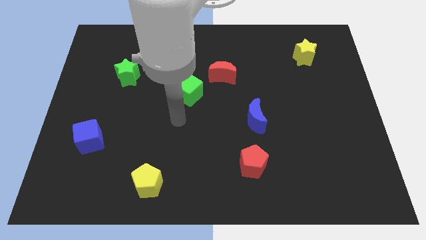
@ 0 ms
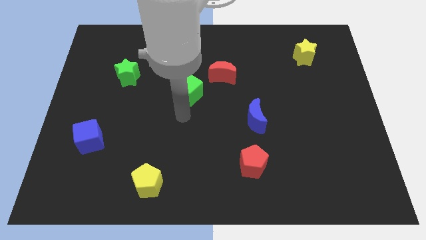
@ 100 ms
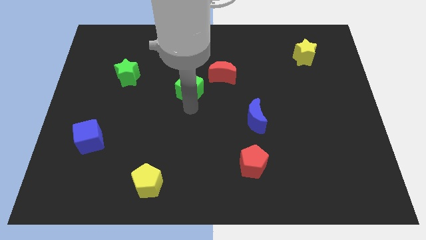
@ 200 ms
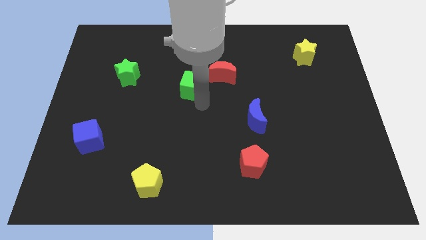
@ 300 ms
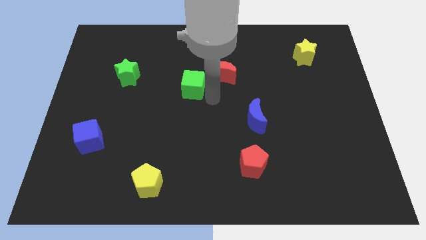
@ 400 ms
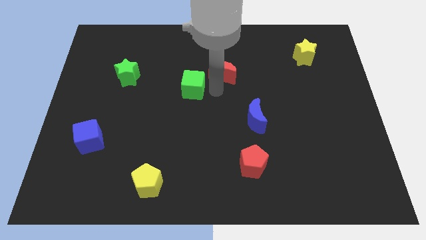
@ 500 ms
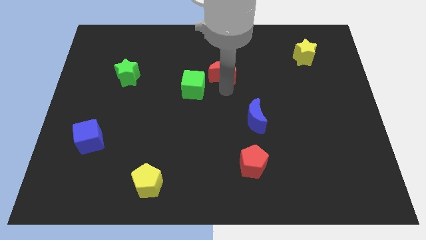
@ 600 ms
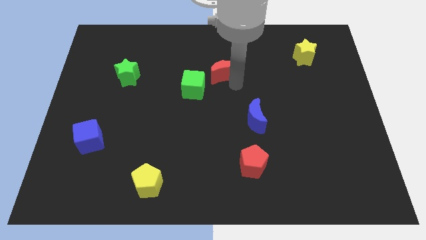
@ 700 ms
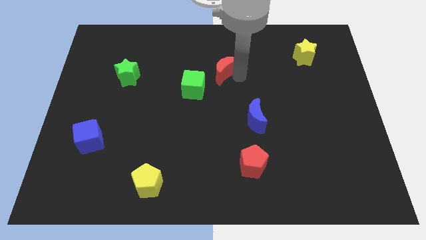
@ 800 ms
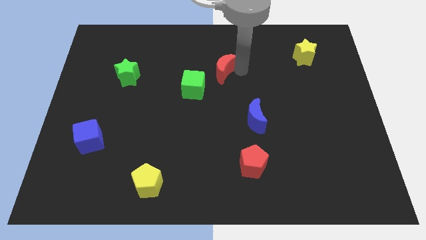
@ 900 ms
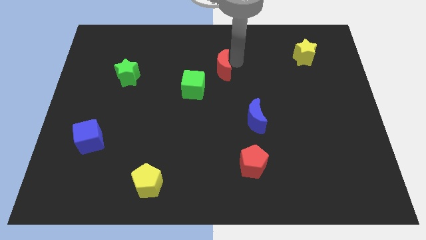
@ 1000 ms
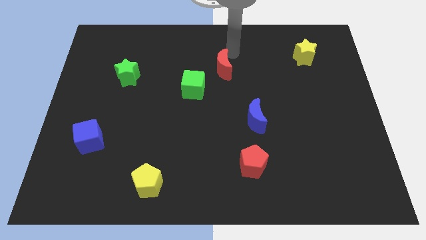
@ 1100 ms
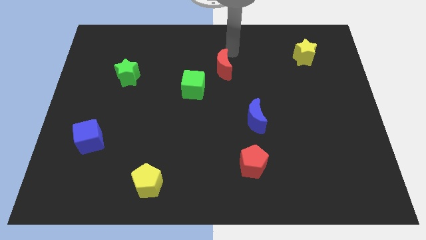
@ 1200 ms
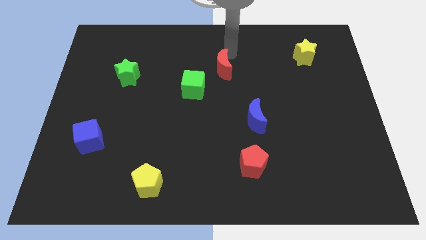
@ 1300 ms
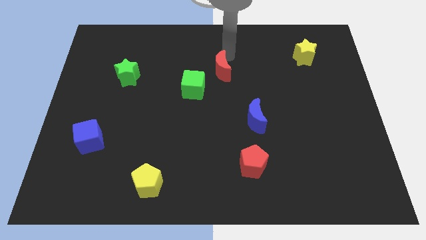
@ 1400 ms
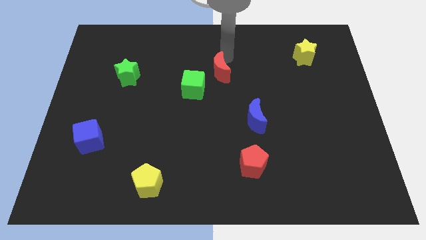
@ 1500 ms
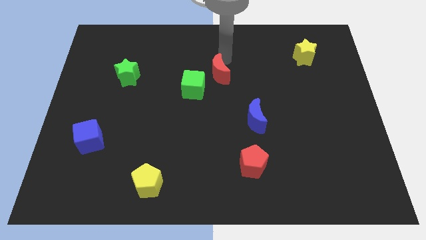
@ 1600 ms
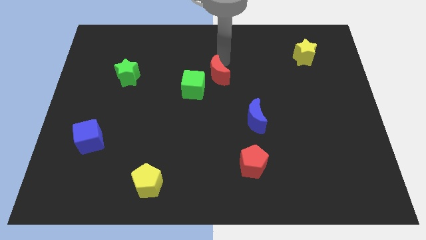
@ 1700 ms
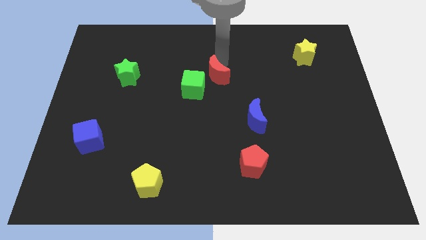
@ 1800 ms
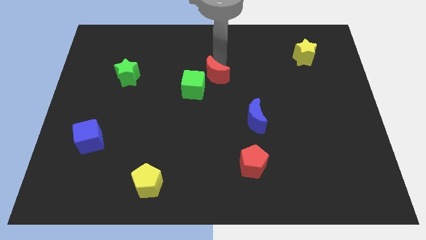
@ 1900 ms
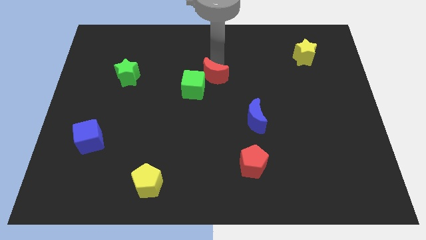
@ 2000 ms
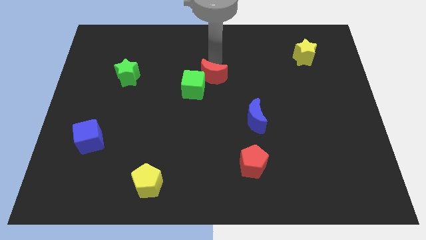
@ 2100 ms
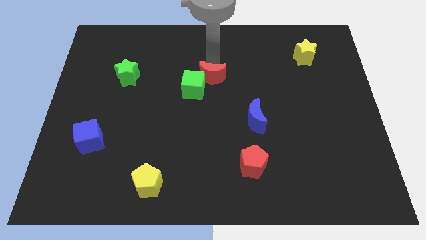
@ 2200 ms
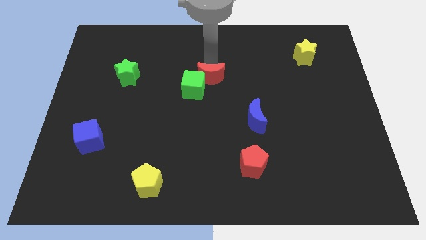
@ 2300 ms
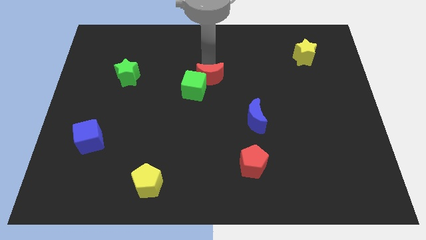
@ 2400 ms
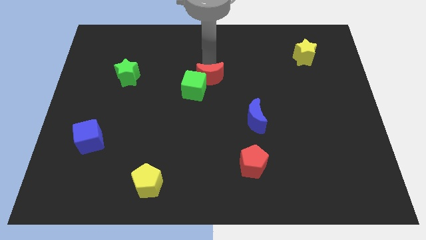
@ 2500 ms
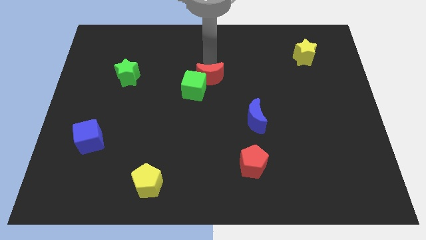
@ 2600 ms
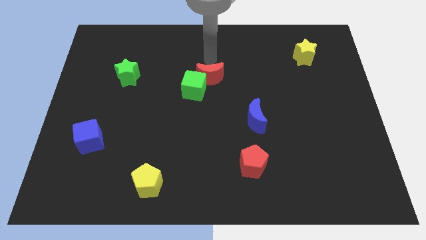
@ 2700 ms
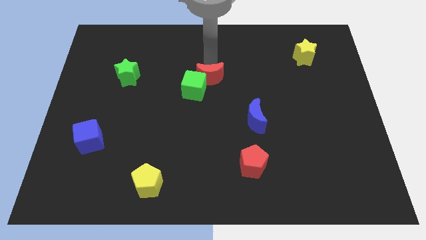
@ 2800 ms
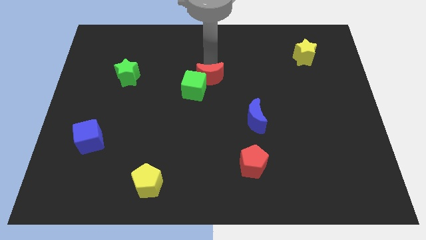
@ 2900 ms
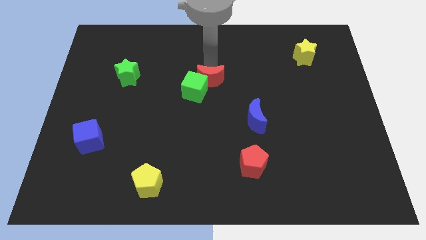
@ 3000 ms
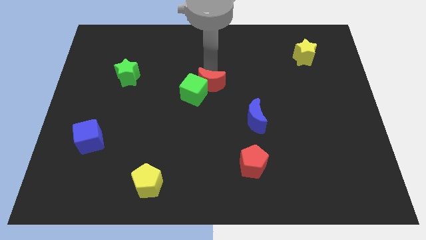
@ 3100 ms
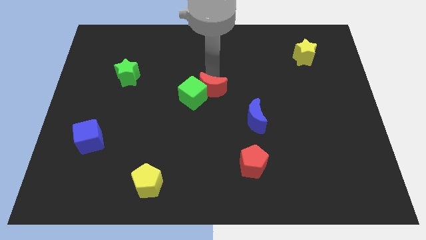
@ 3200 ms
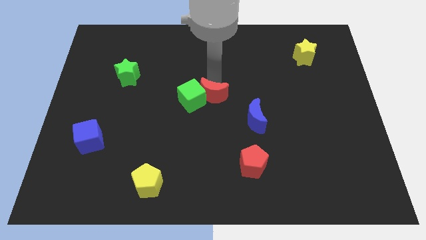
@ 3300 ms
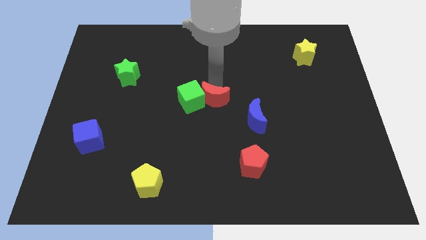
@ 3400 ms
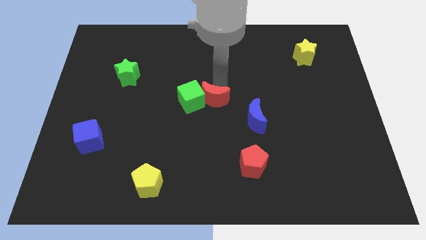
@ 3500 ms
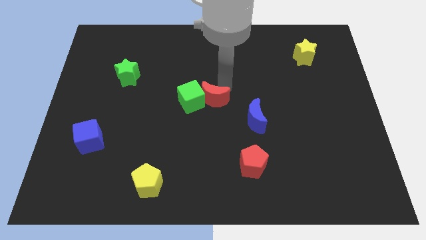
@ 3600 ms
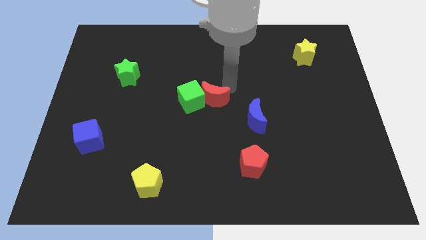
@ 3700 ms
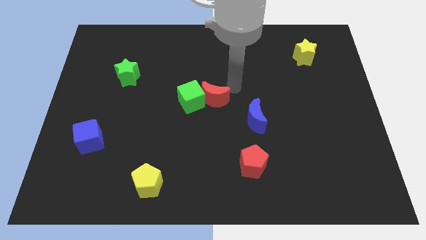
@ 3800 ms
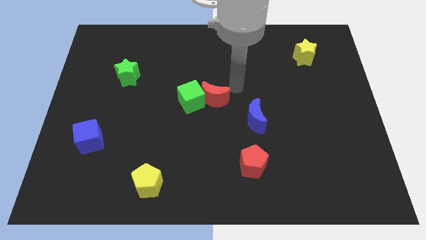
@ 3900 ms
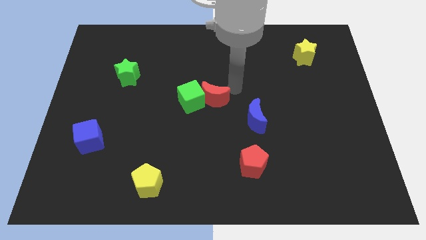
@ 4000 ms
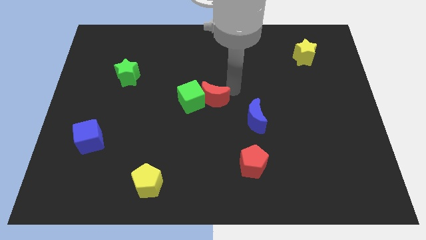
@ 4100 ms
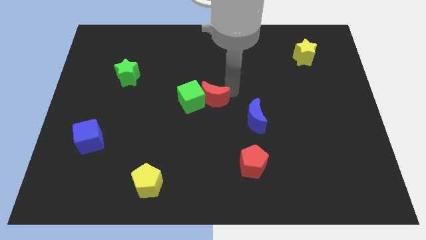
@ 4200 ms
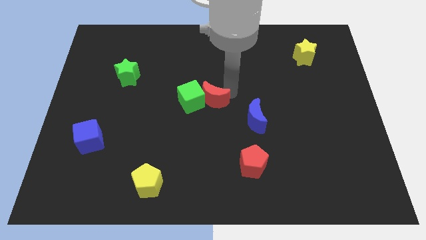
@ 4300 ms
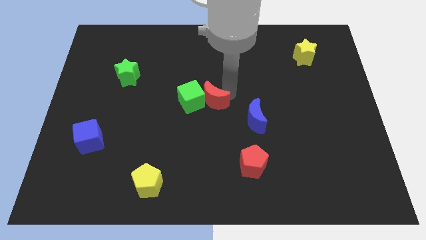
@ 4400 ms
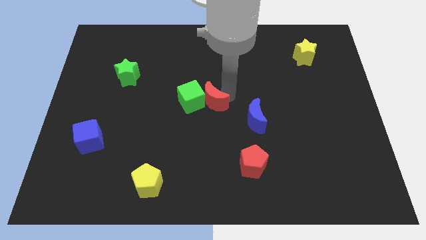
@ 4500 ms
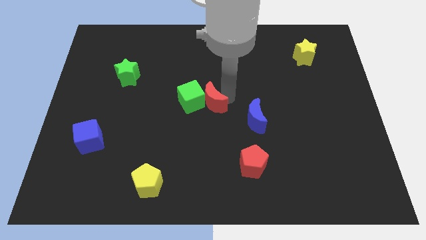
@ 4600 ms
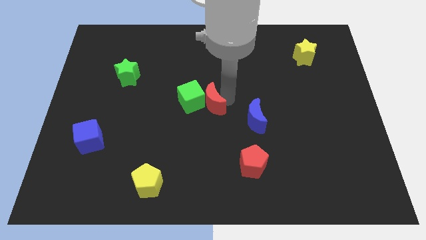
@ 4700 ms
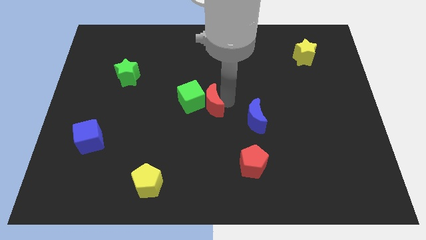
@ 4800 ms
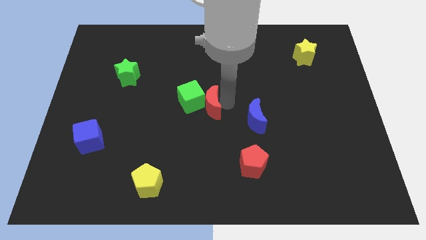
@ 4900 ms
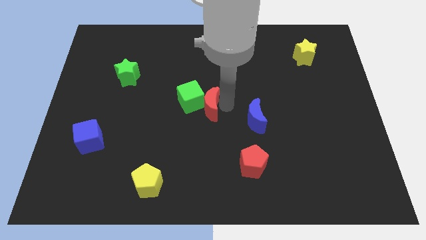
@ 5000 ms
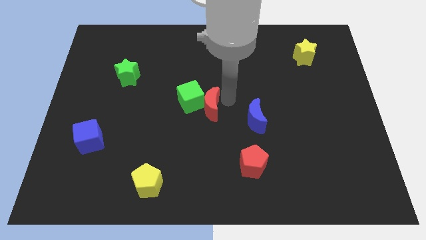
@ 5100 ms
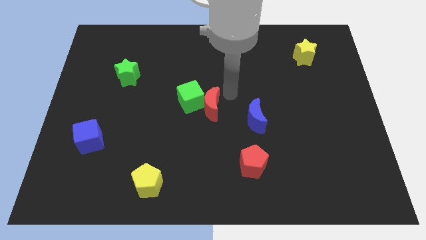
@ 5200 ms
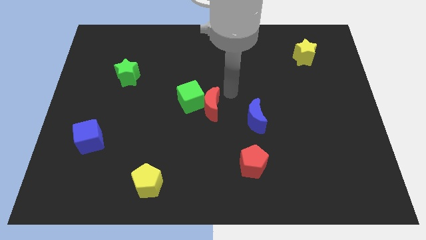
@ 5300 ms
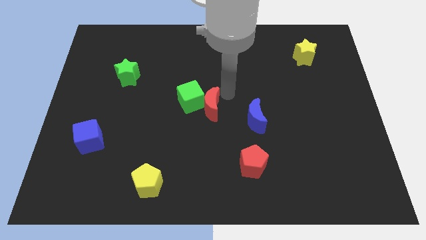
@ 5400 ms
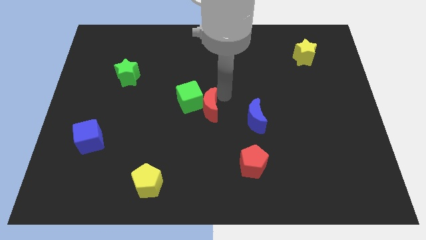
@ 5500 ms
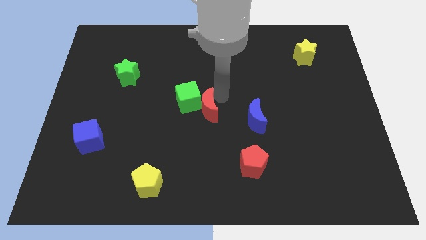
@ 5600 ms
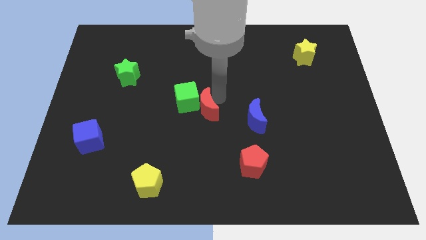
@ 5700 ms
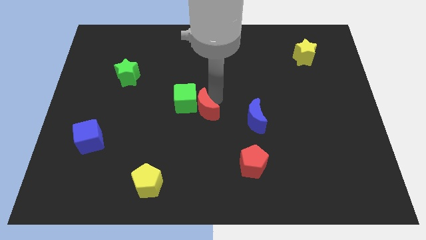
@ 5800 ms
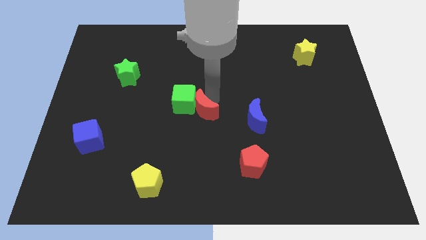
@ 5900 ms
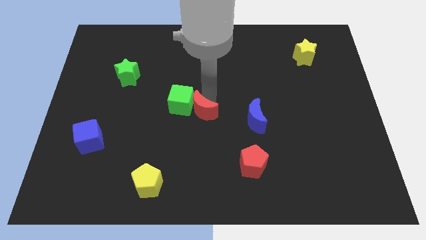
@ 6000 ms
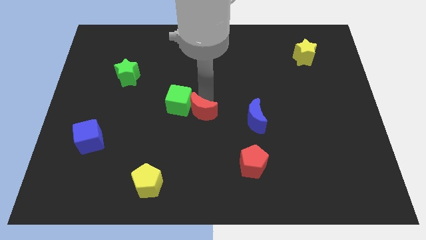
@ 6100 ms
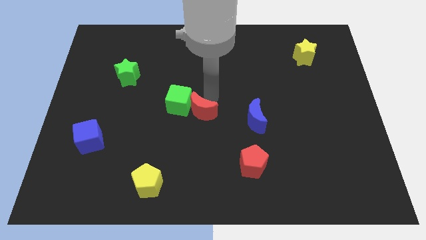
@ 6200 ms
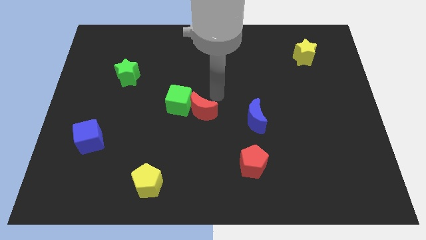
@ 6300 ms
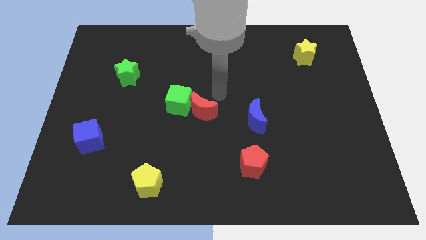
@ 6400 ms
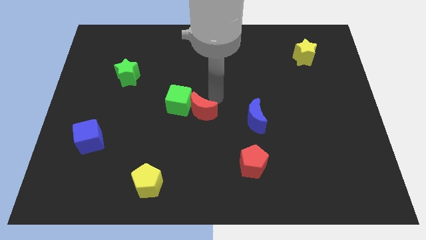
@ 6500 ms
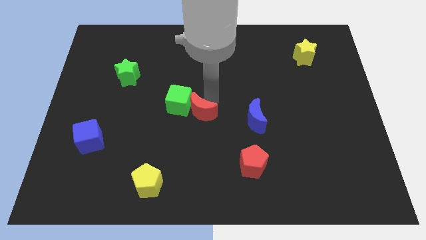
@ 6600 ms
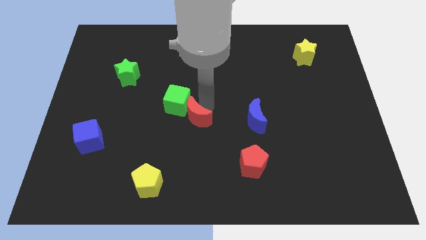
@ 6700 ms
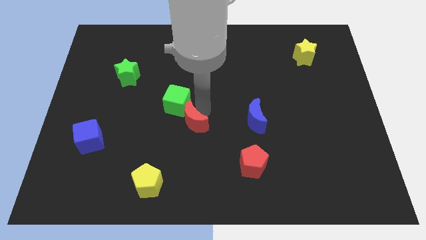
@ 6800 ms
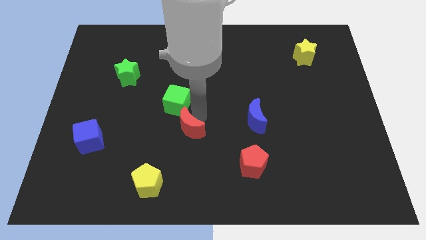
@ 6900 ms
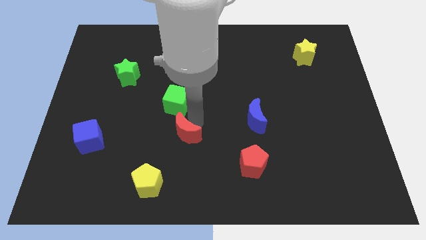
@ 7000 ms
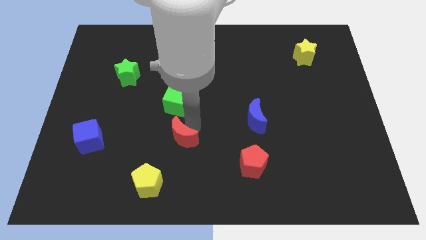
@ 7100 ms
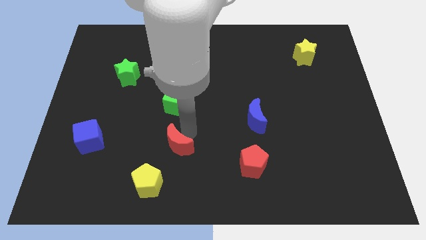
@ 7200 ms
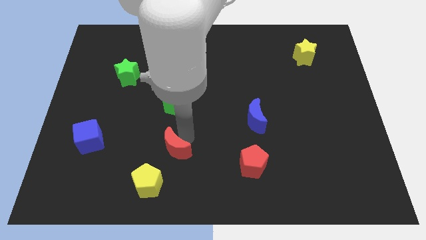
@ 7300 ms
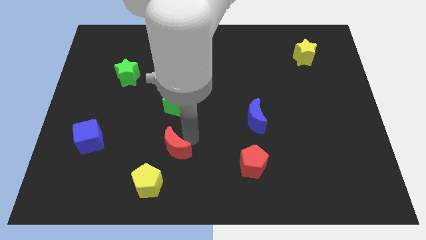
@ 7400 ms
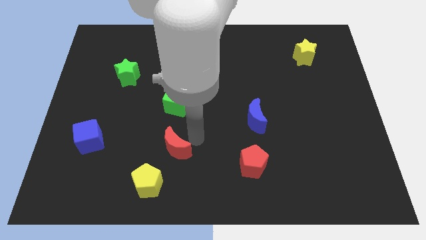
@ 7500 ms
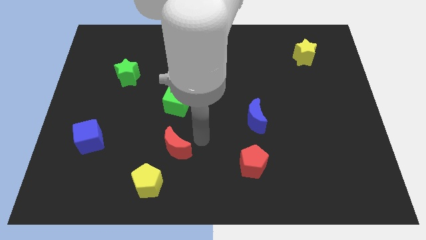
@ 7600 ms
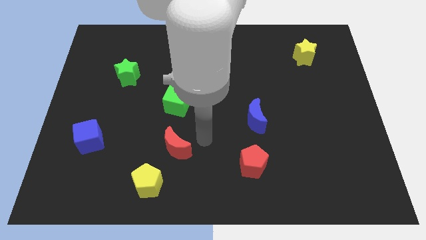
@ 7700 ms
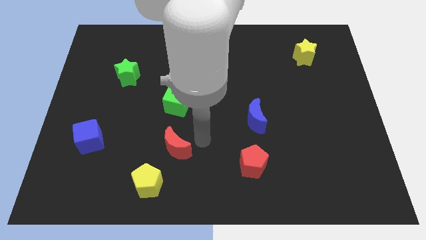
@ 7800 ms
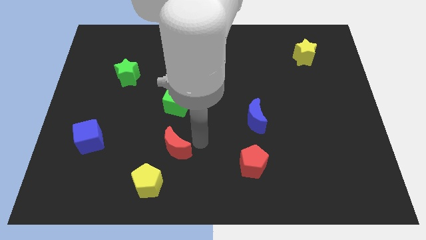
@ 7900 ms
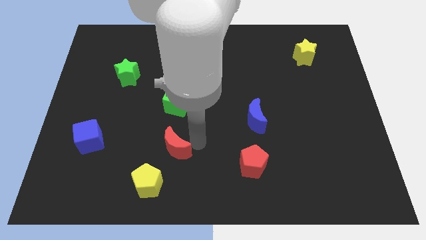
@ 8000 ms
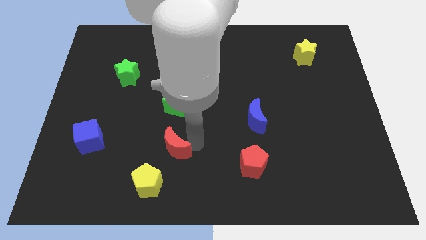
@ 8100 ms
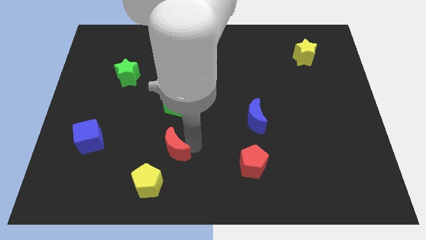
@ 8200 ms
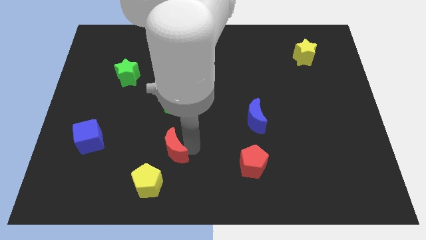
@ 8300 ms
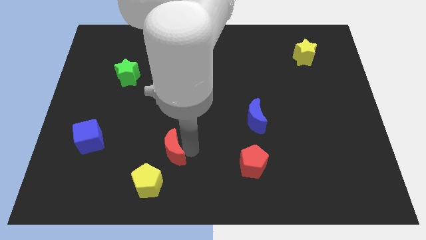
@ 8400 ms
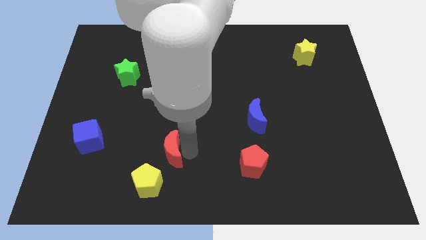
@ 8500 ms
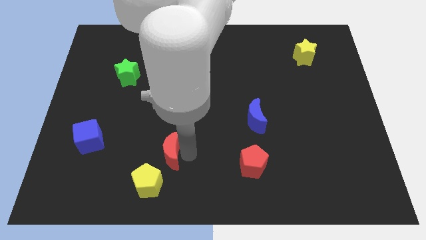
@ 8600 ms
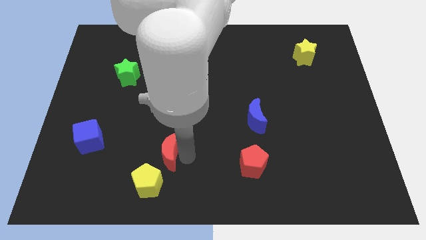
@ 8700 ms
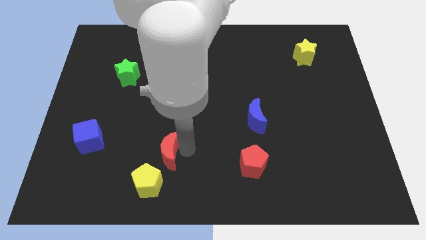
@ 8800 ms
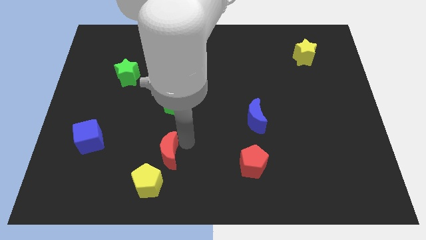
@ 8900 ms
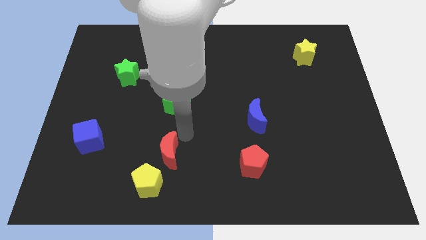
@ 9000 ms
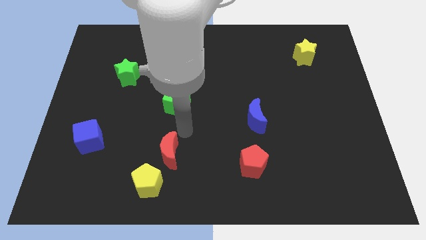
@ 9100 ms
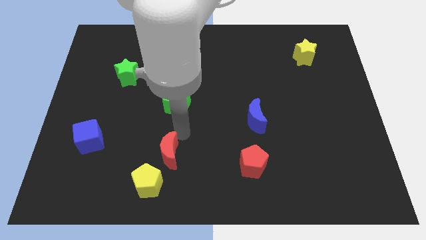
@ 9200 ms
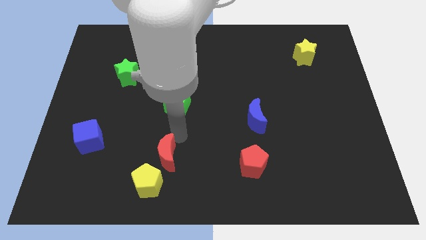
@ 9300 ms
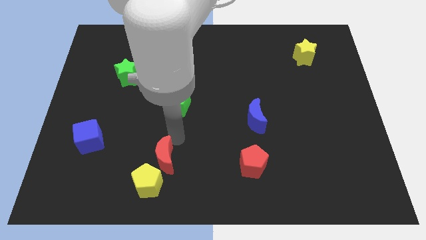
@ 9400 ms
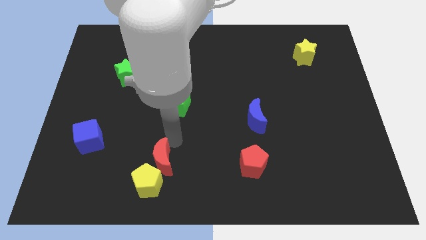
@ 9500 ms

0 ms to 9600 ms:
push the red moon towards the yellow pentagon
